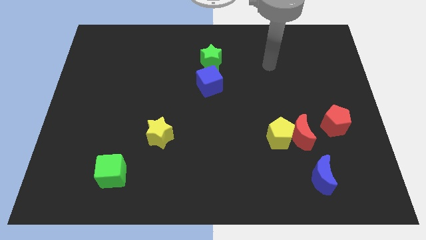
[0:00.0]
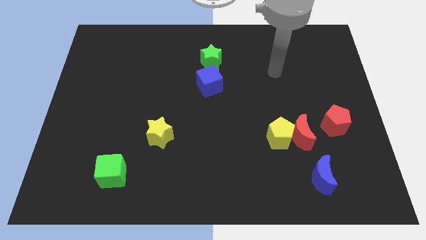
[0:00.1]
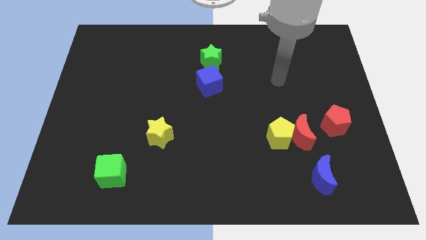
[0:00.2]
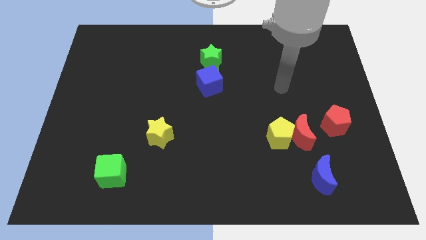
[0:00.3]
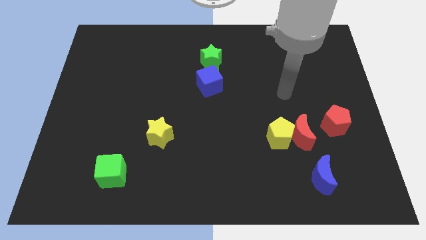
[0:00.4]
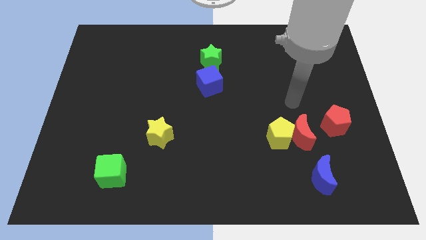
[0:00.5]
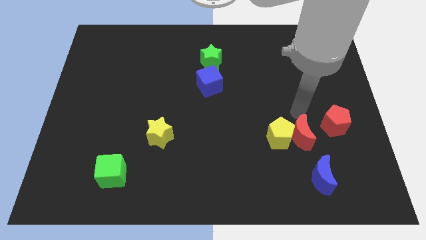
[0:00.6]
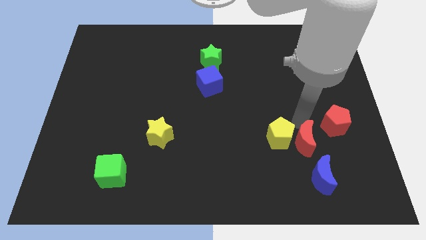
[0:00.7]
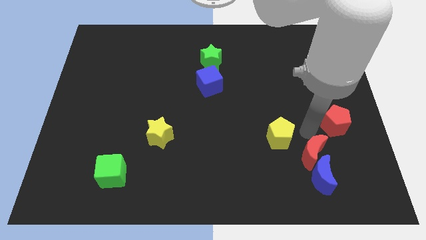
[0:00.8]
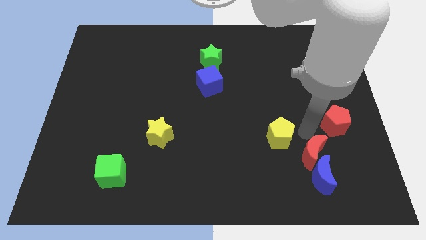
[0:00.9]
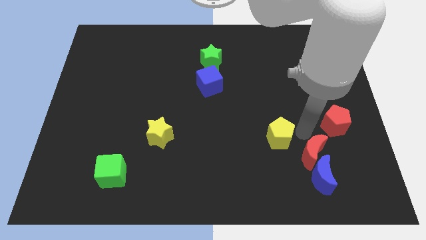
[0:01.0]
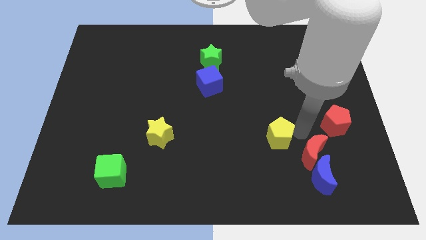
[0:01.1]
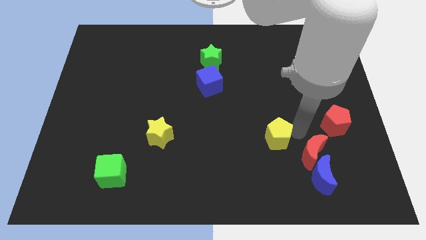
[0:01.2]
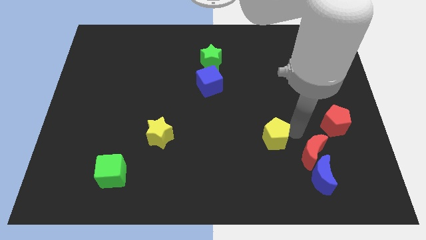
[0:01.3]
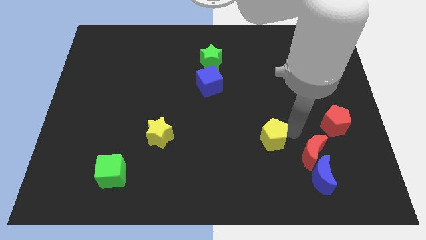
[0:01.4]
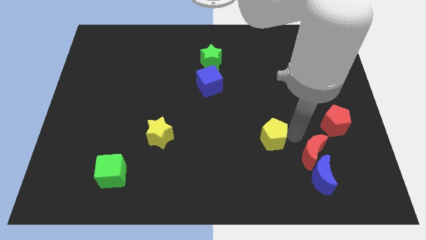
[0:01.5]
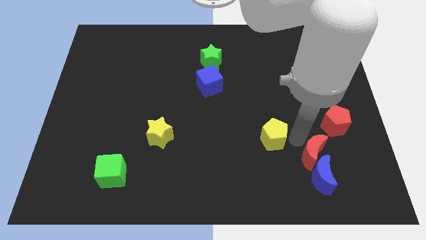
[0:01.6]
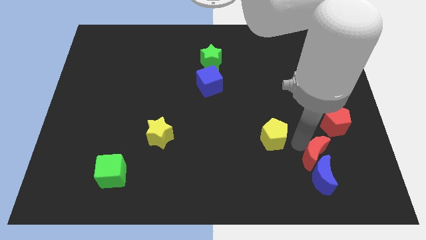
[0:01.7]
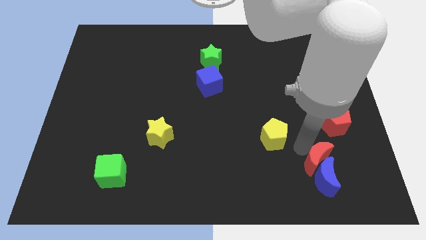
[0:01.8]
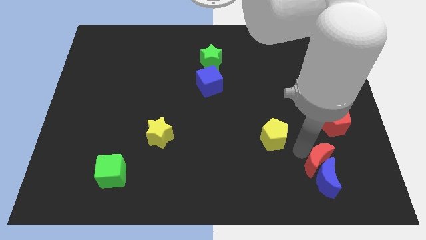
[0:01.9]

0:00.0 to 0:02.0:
pull the yellow pentagon apart from the red moon

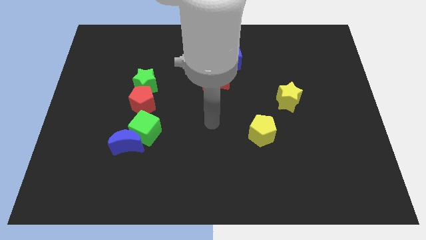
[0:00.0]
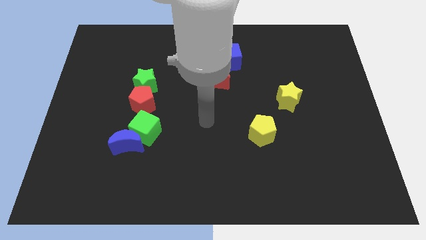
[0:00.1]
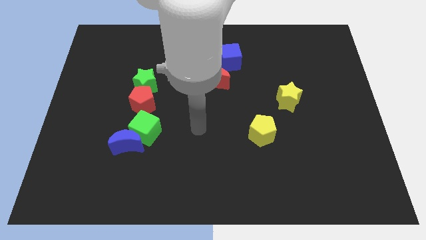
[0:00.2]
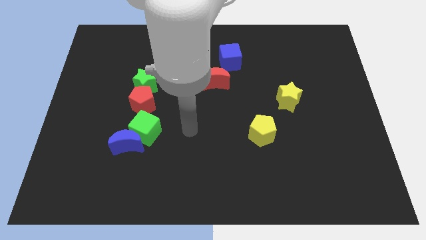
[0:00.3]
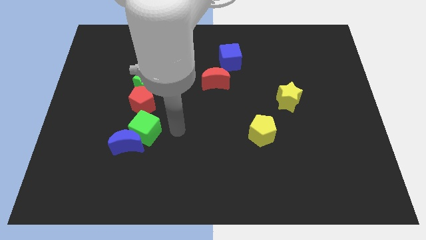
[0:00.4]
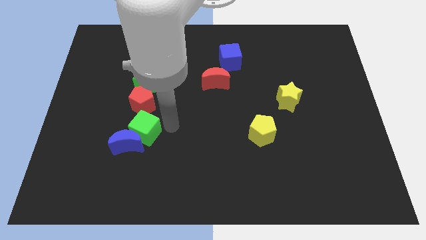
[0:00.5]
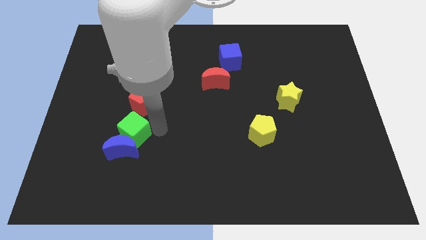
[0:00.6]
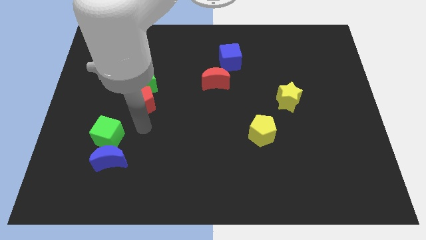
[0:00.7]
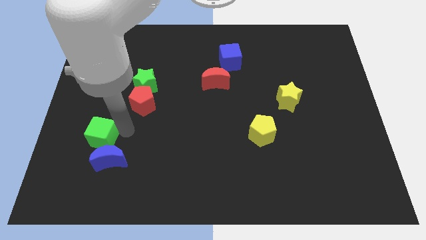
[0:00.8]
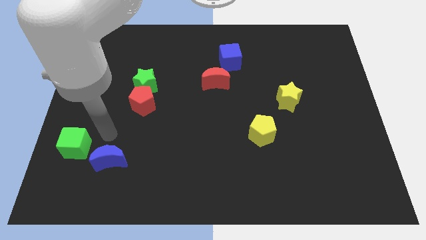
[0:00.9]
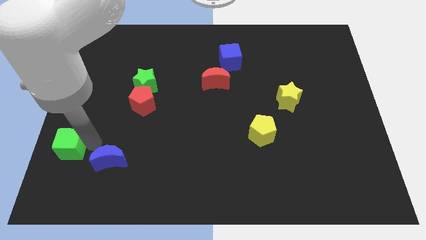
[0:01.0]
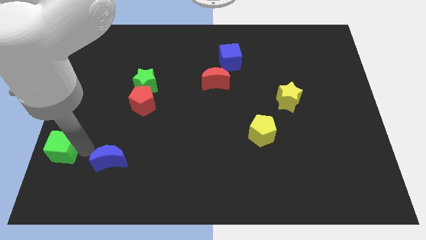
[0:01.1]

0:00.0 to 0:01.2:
separate the blue moon from the green cube

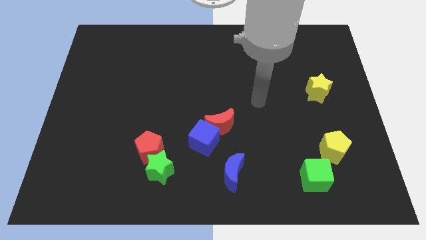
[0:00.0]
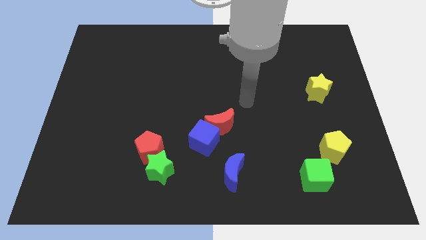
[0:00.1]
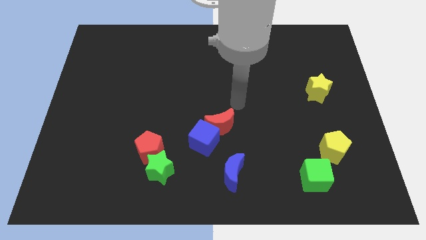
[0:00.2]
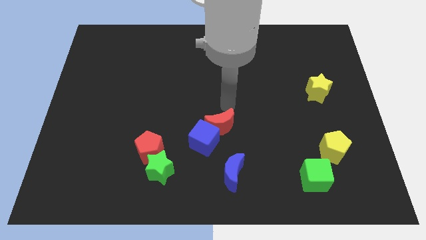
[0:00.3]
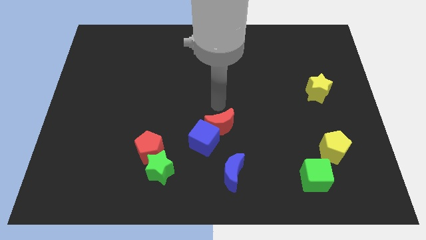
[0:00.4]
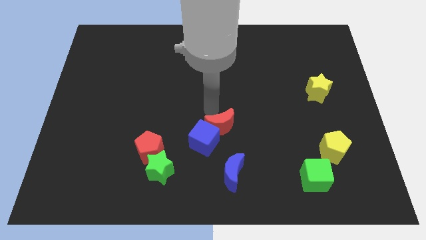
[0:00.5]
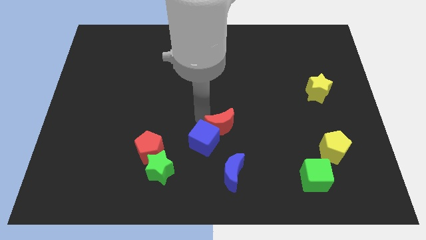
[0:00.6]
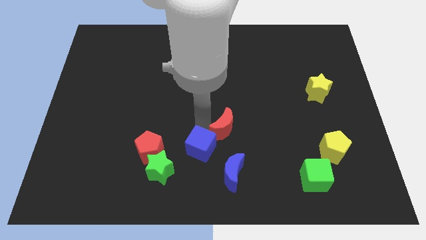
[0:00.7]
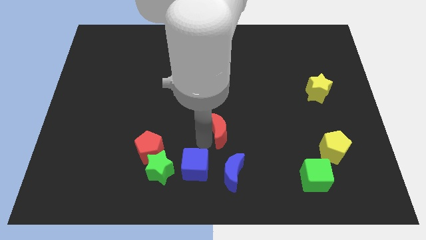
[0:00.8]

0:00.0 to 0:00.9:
separate the red moon from the blue cube

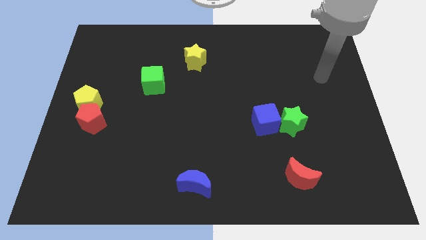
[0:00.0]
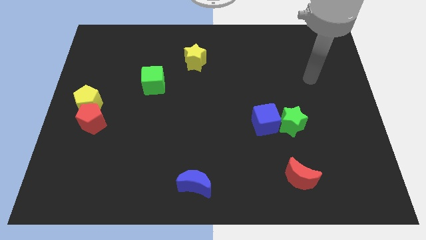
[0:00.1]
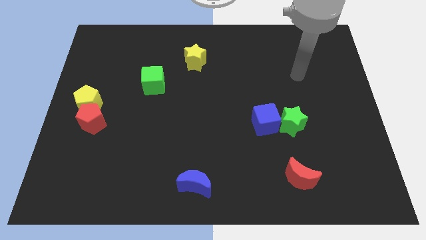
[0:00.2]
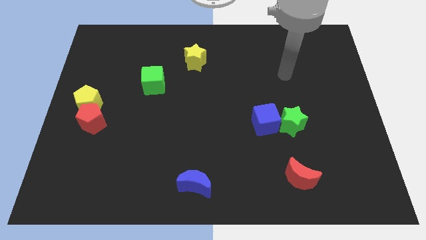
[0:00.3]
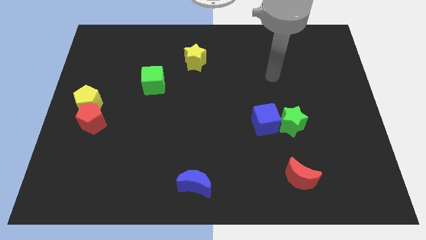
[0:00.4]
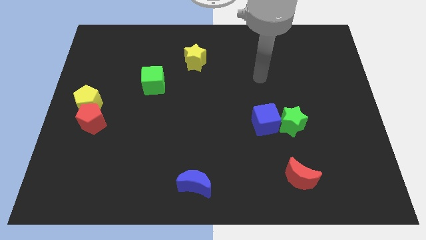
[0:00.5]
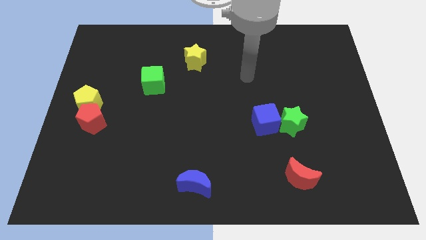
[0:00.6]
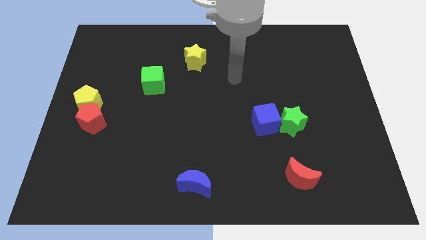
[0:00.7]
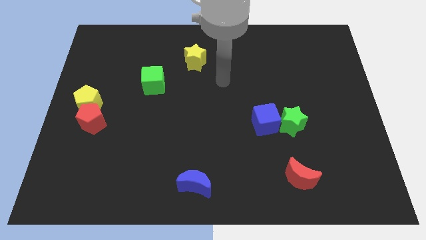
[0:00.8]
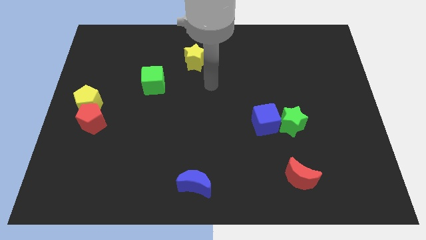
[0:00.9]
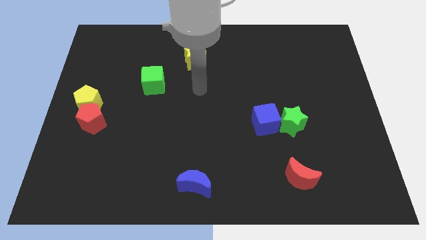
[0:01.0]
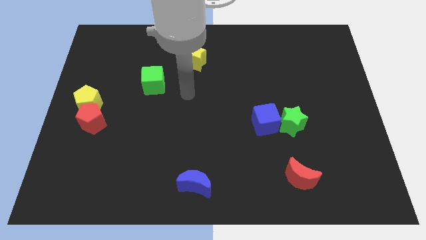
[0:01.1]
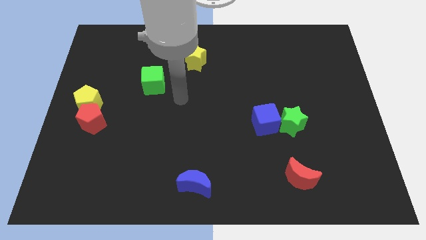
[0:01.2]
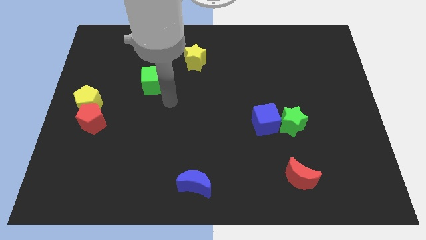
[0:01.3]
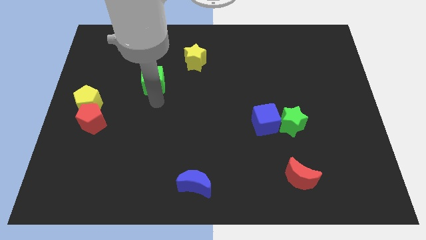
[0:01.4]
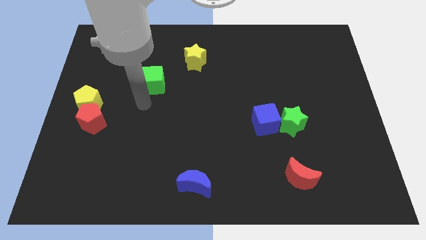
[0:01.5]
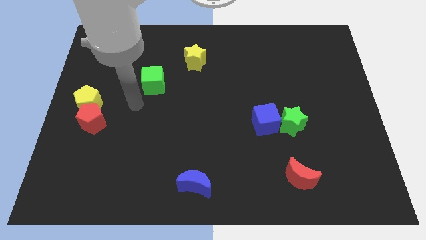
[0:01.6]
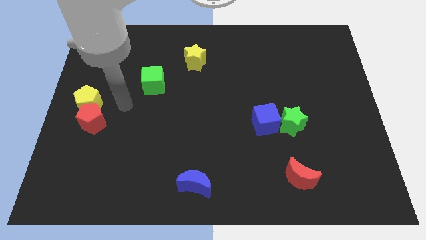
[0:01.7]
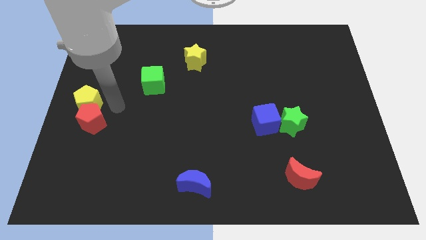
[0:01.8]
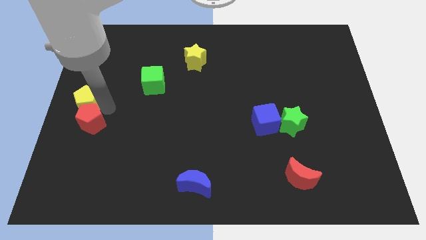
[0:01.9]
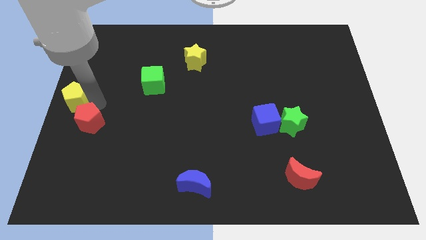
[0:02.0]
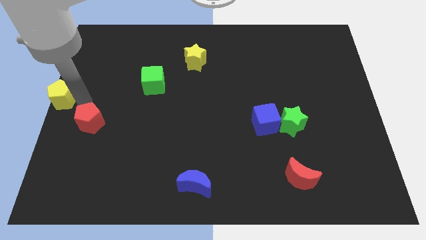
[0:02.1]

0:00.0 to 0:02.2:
separate the red pentagon from the yellow pentagon

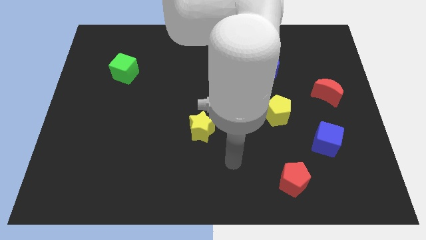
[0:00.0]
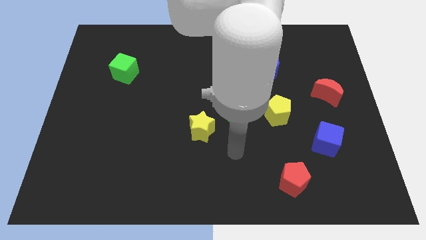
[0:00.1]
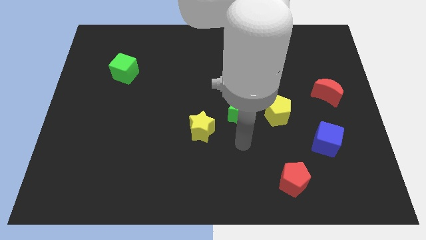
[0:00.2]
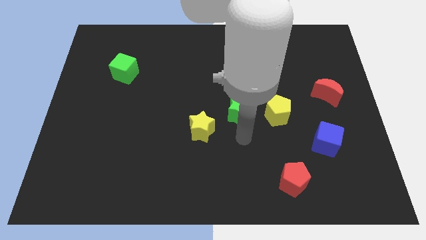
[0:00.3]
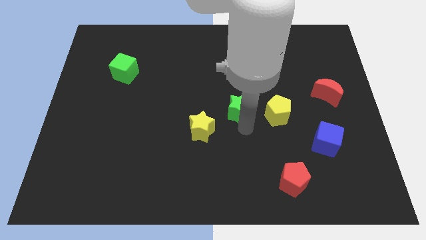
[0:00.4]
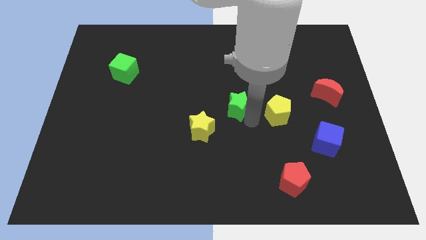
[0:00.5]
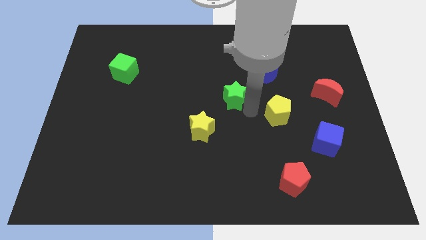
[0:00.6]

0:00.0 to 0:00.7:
pull the yellow pentagon apart from the green star

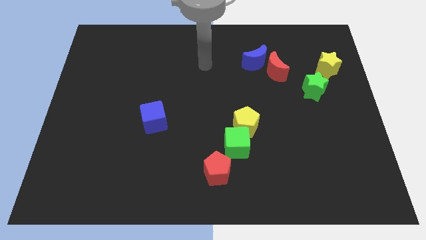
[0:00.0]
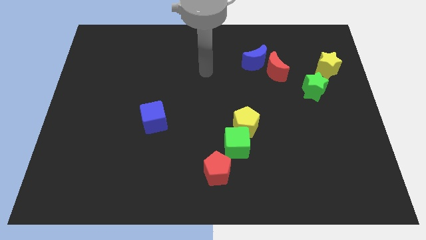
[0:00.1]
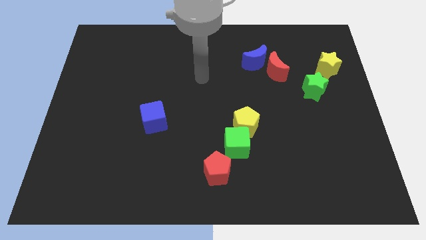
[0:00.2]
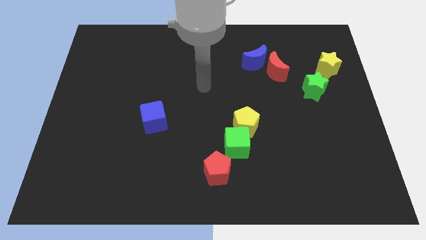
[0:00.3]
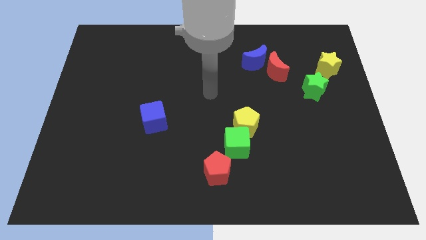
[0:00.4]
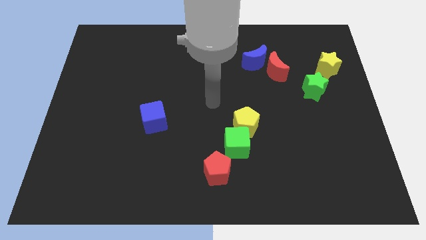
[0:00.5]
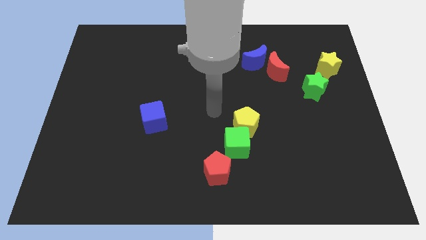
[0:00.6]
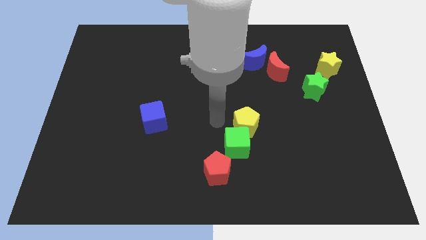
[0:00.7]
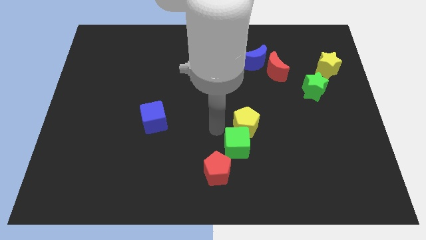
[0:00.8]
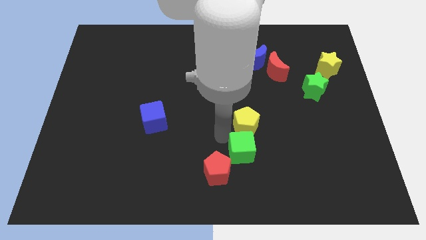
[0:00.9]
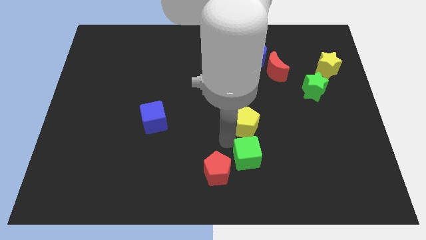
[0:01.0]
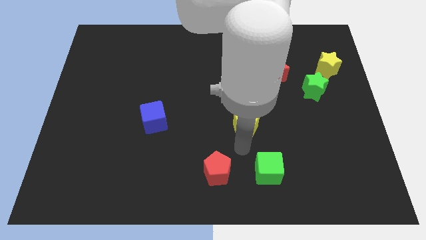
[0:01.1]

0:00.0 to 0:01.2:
pull the yellow pentagon apart from the green cube

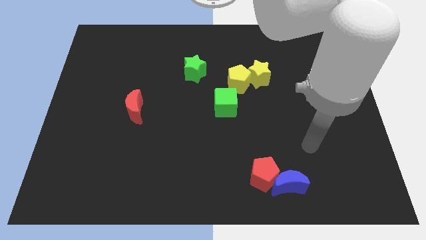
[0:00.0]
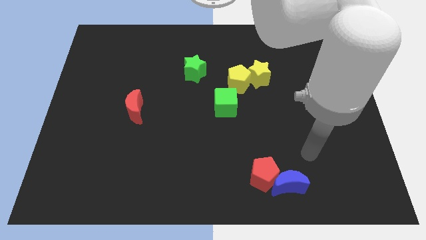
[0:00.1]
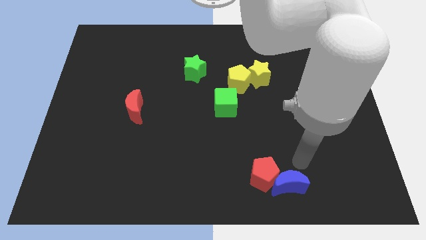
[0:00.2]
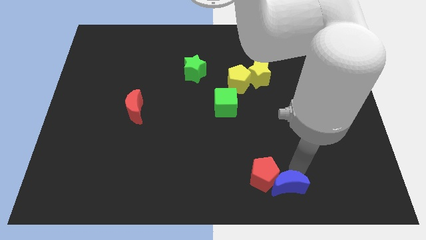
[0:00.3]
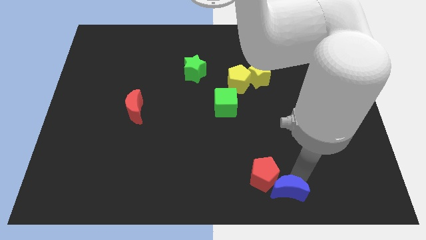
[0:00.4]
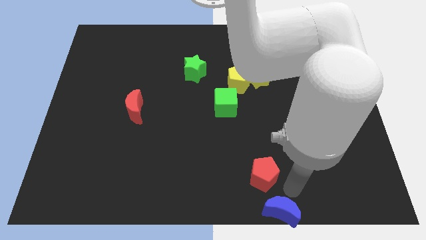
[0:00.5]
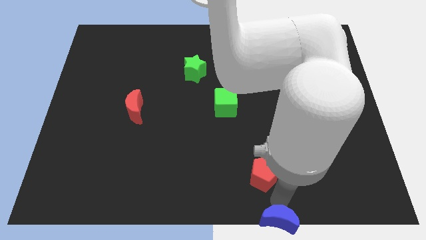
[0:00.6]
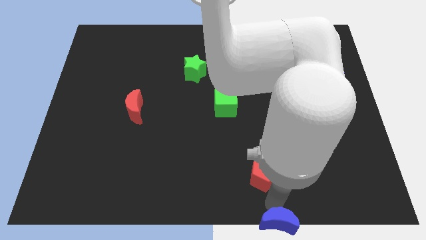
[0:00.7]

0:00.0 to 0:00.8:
move the red pentagon away from the blue moon

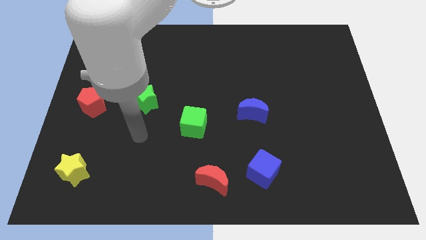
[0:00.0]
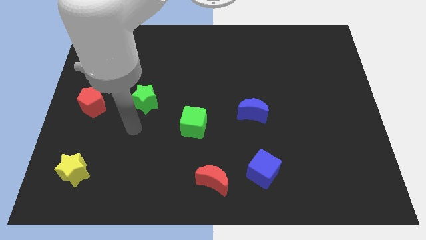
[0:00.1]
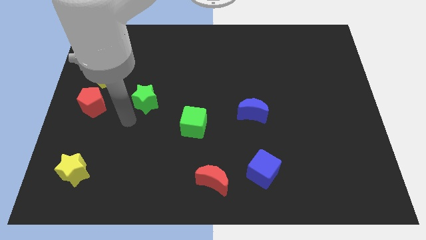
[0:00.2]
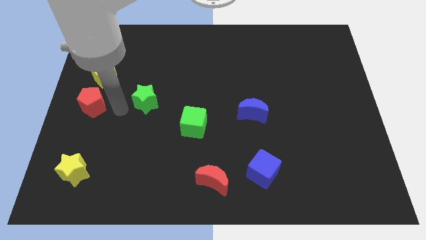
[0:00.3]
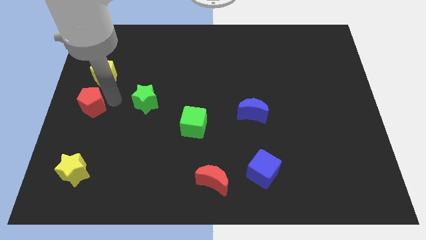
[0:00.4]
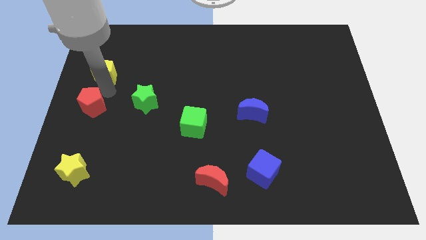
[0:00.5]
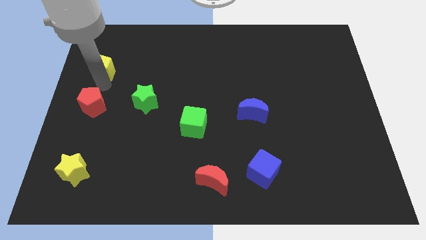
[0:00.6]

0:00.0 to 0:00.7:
pull the red pentagon apart from the yellow pentagon
